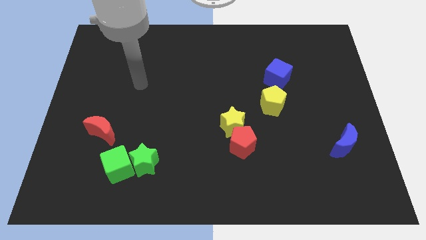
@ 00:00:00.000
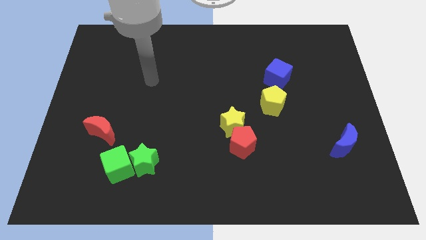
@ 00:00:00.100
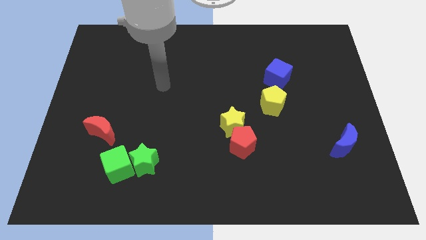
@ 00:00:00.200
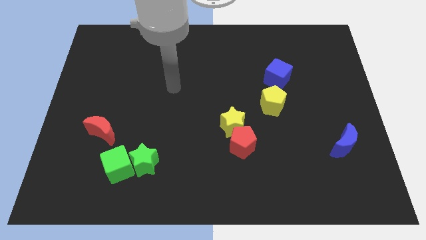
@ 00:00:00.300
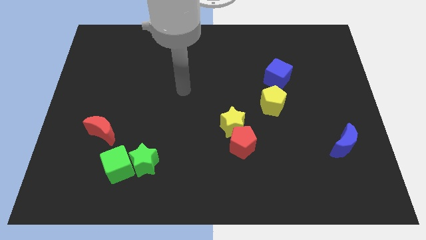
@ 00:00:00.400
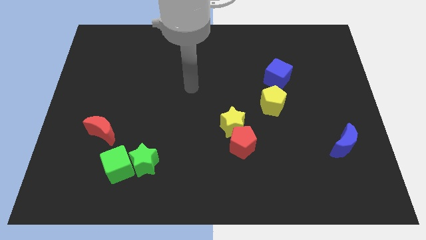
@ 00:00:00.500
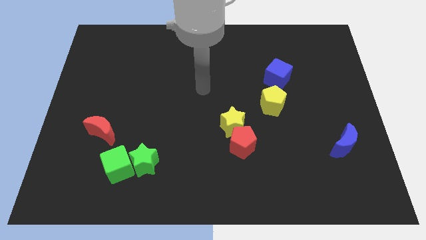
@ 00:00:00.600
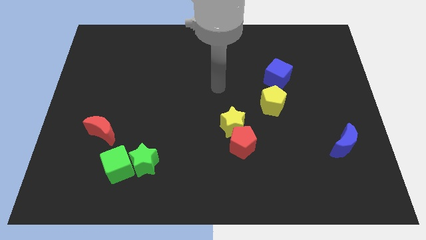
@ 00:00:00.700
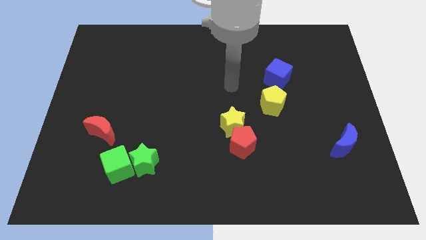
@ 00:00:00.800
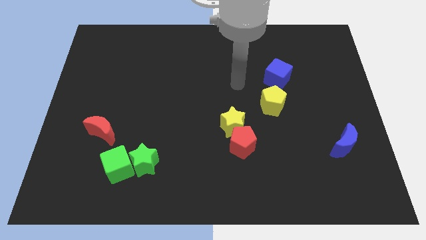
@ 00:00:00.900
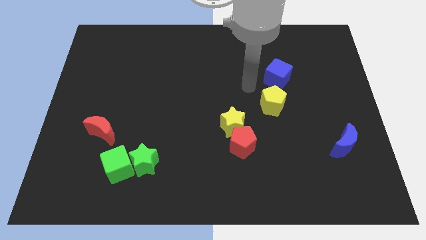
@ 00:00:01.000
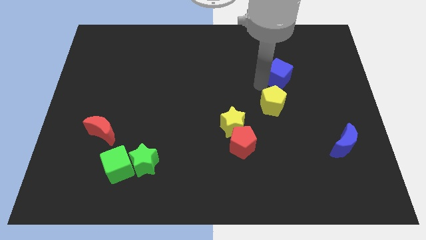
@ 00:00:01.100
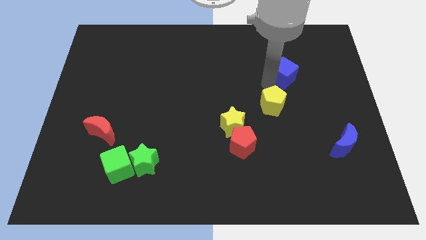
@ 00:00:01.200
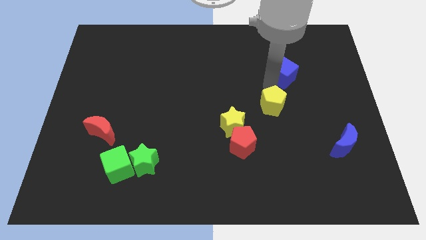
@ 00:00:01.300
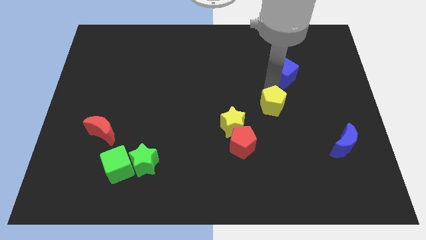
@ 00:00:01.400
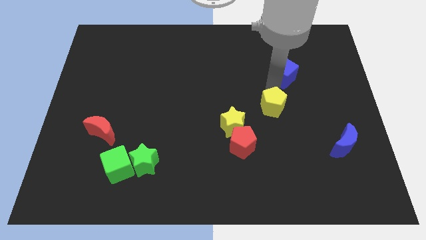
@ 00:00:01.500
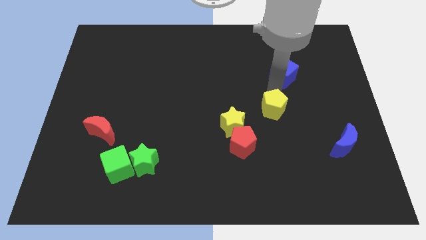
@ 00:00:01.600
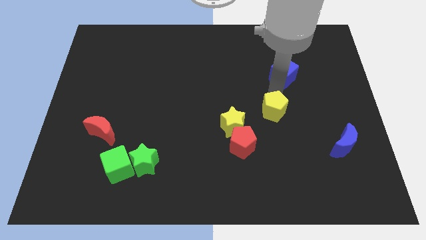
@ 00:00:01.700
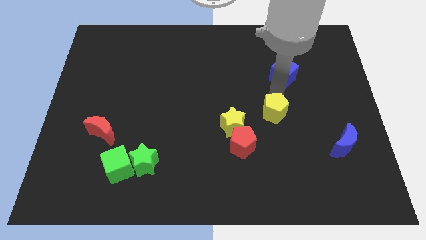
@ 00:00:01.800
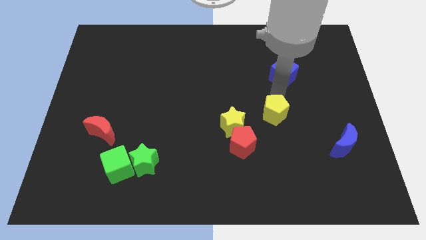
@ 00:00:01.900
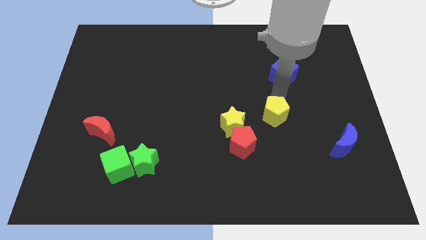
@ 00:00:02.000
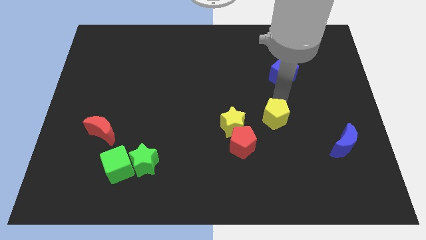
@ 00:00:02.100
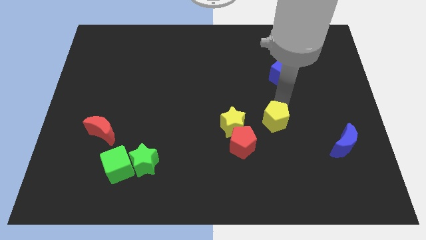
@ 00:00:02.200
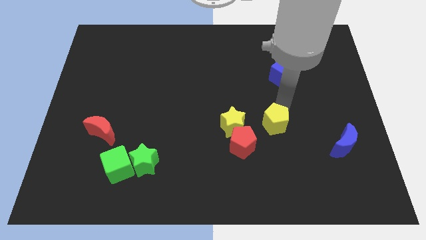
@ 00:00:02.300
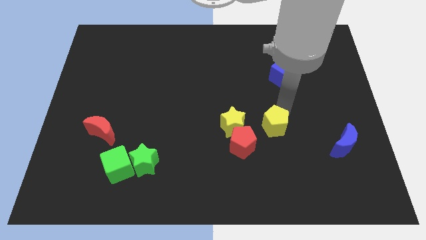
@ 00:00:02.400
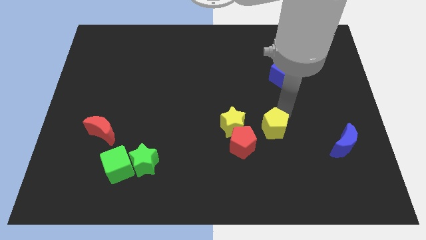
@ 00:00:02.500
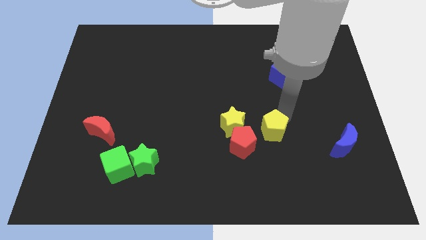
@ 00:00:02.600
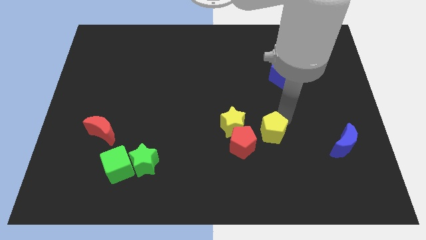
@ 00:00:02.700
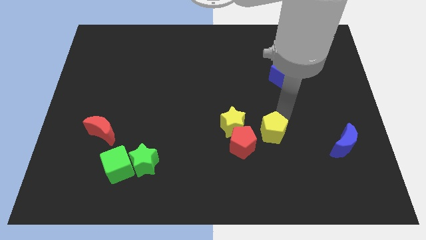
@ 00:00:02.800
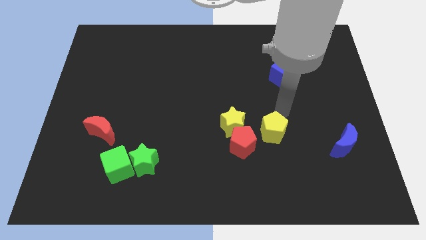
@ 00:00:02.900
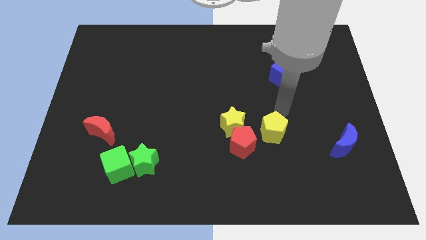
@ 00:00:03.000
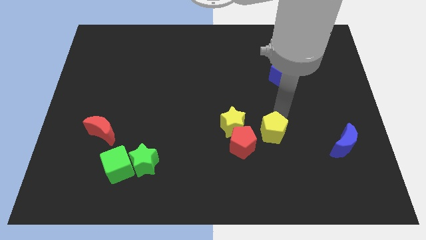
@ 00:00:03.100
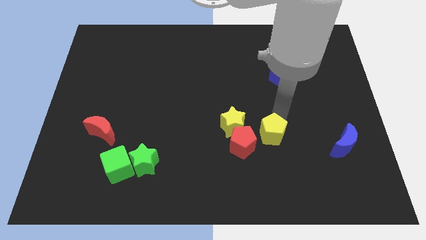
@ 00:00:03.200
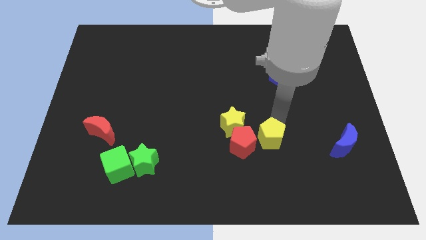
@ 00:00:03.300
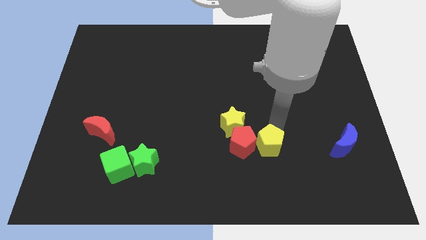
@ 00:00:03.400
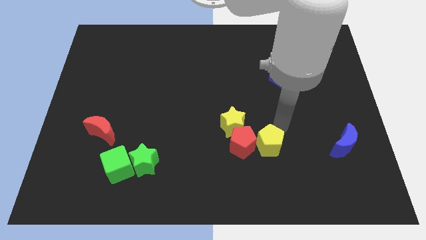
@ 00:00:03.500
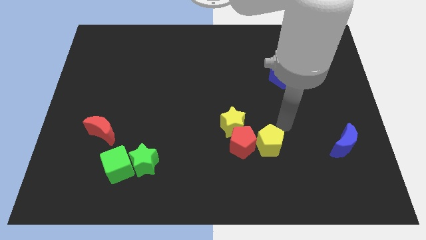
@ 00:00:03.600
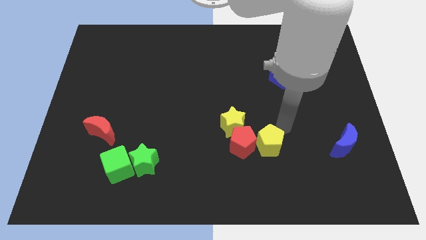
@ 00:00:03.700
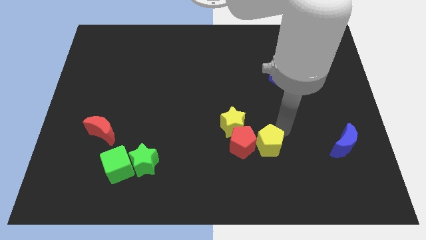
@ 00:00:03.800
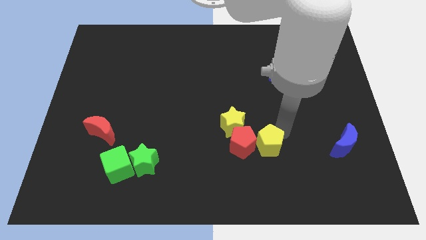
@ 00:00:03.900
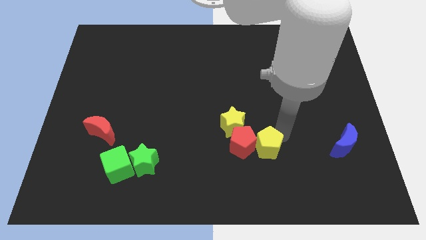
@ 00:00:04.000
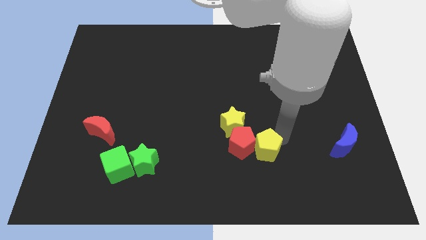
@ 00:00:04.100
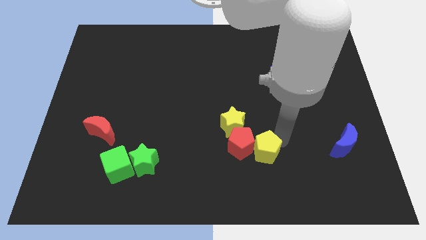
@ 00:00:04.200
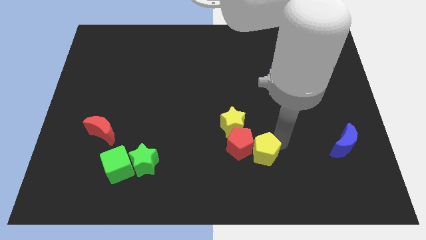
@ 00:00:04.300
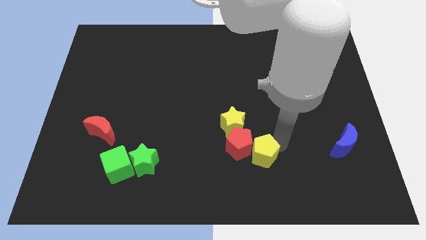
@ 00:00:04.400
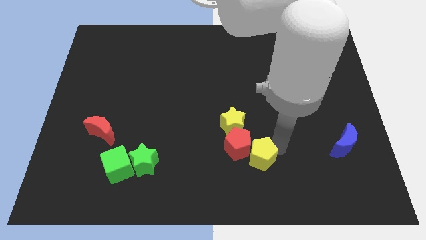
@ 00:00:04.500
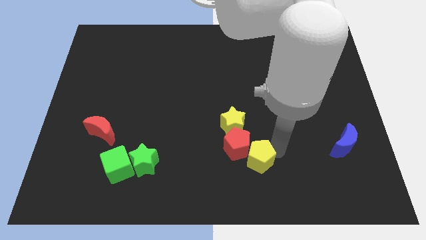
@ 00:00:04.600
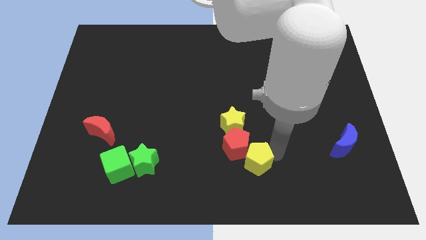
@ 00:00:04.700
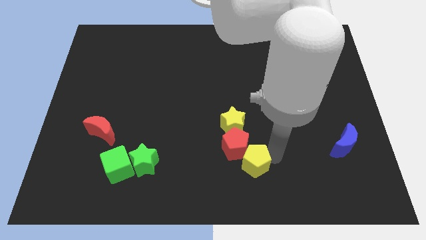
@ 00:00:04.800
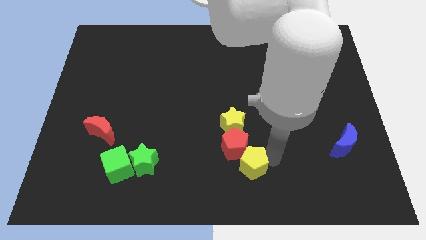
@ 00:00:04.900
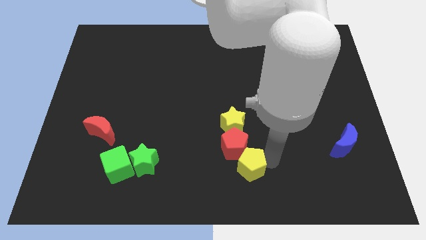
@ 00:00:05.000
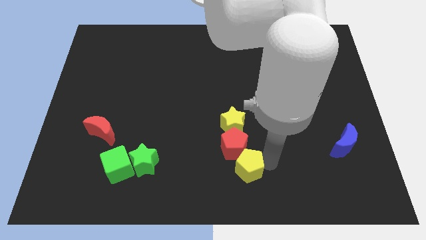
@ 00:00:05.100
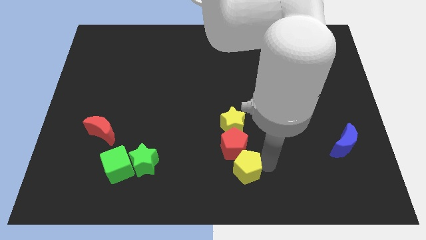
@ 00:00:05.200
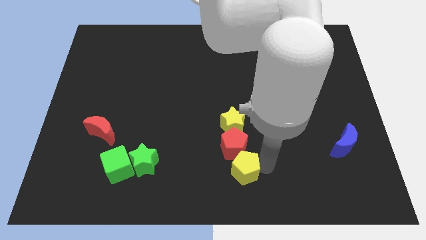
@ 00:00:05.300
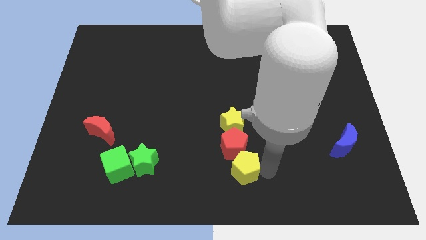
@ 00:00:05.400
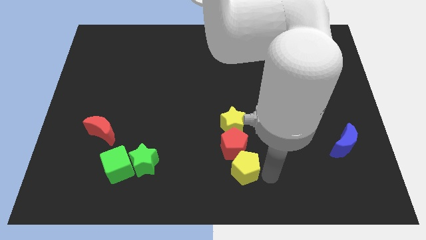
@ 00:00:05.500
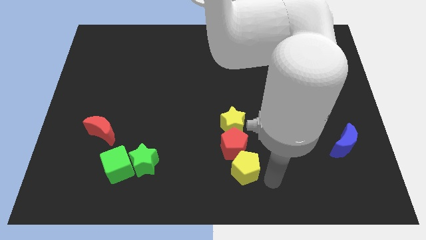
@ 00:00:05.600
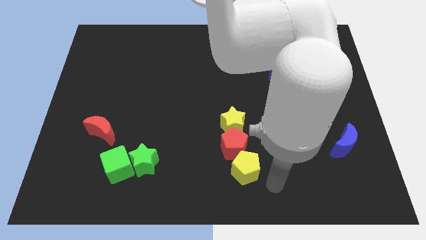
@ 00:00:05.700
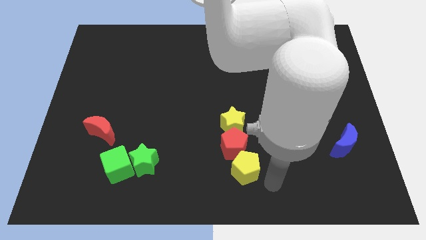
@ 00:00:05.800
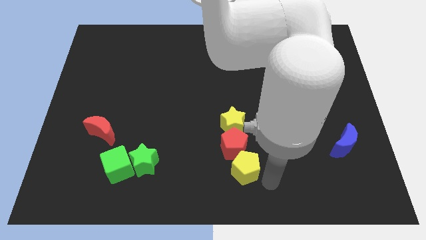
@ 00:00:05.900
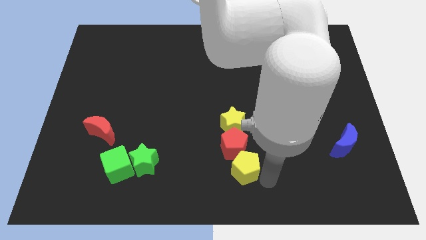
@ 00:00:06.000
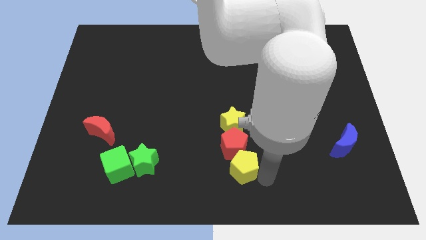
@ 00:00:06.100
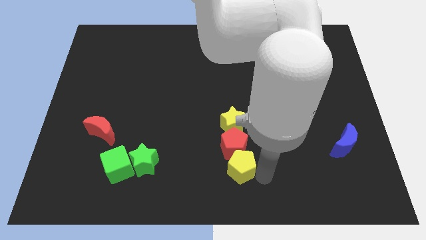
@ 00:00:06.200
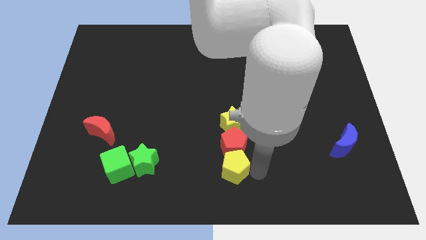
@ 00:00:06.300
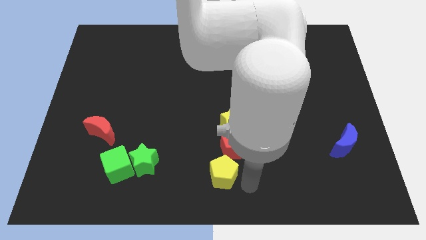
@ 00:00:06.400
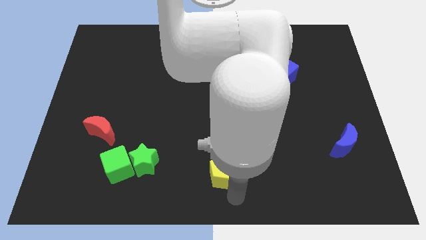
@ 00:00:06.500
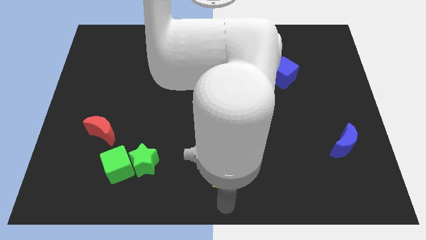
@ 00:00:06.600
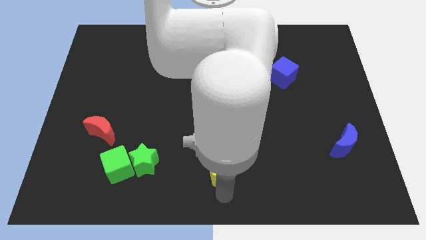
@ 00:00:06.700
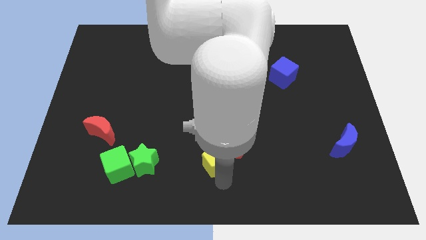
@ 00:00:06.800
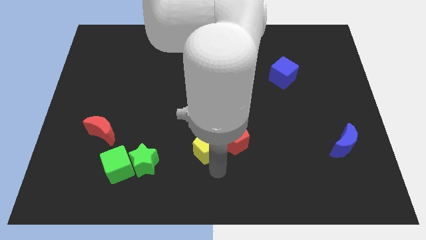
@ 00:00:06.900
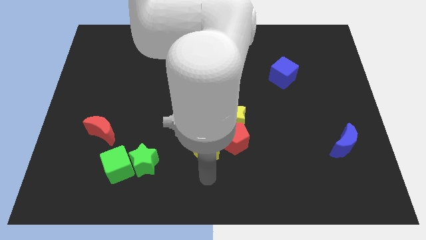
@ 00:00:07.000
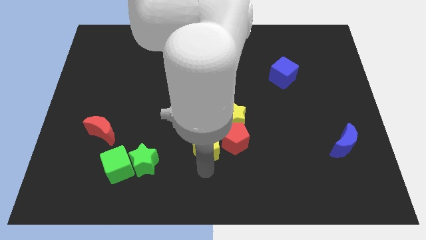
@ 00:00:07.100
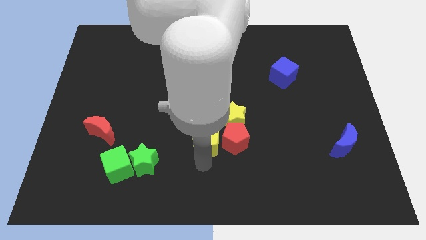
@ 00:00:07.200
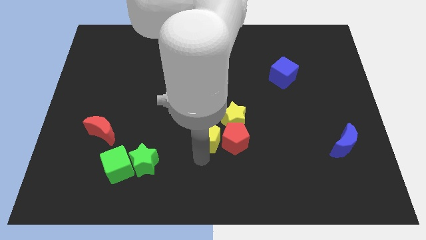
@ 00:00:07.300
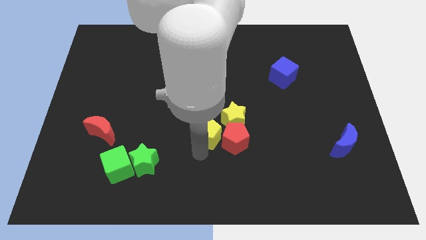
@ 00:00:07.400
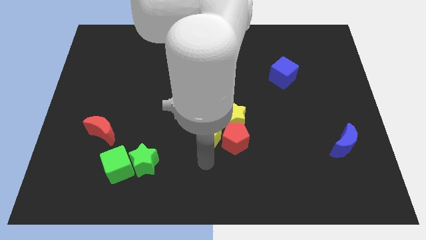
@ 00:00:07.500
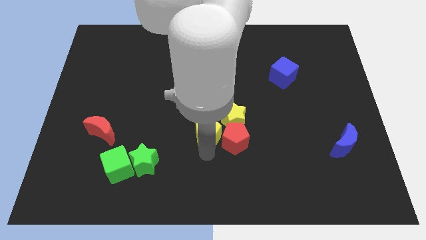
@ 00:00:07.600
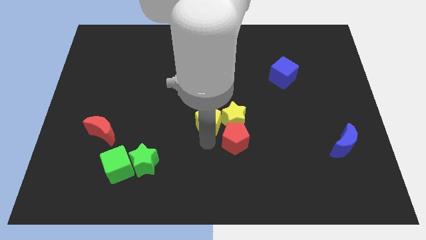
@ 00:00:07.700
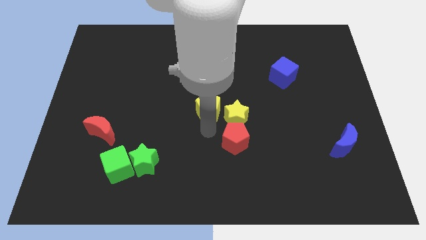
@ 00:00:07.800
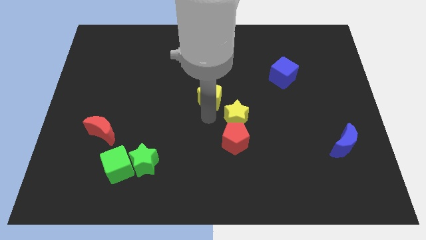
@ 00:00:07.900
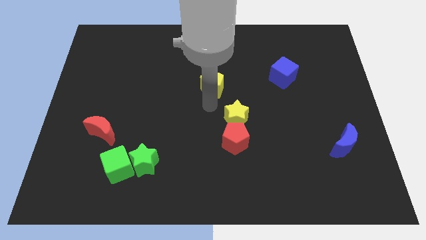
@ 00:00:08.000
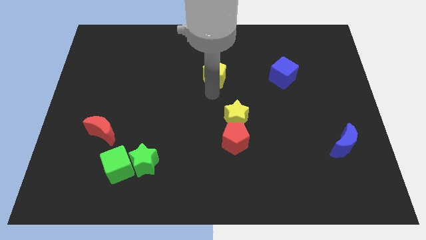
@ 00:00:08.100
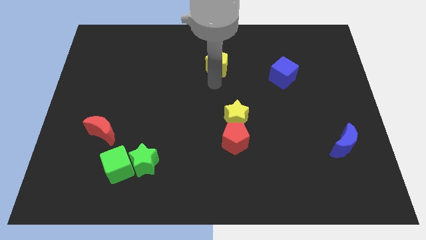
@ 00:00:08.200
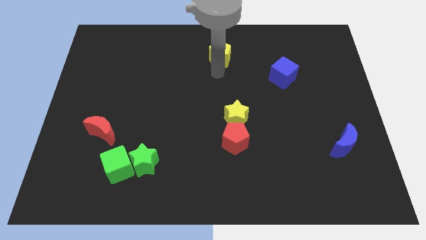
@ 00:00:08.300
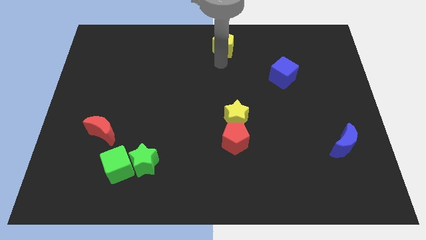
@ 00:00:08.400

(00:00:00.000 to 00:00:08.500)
move the yellow pentagon to the top side
